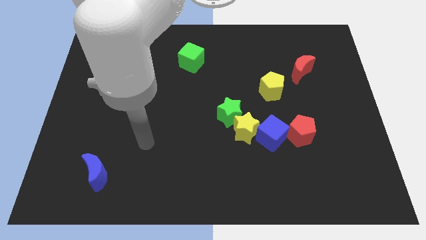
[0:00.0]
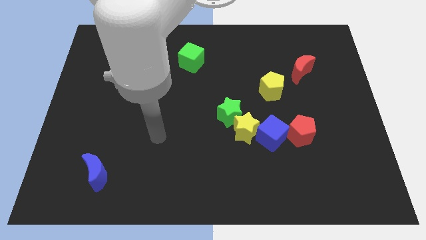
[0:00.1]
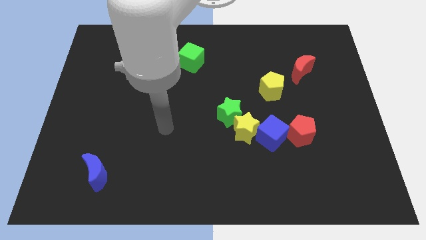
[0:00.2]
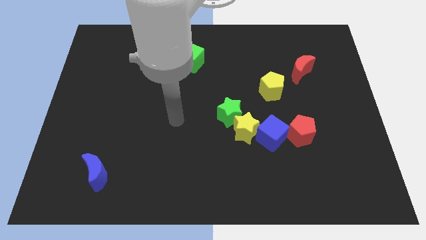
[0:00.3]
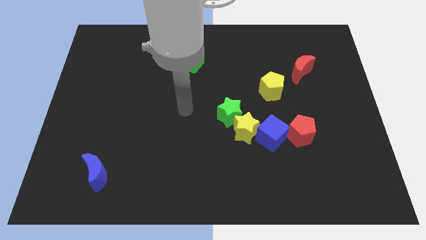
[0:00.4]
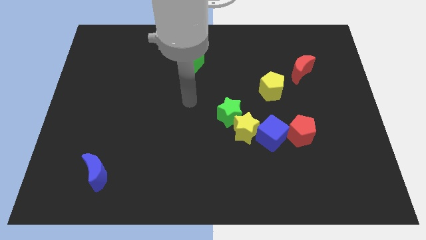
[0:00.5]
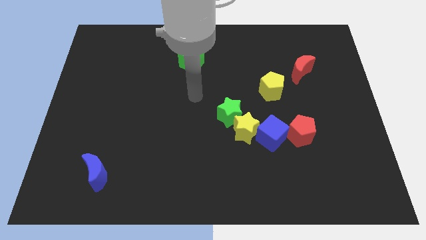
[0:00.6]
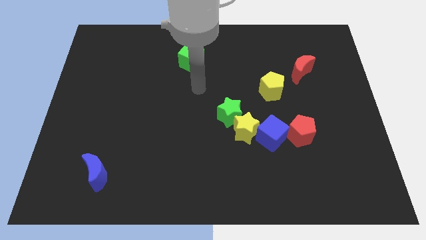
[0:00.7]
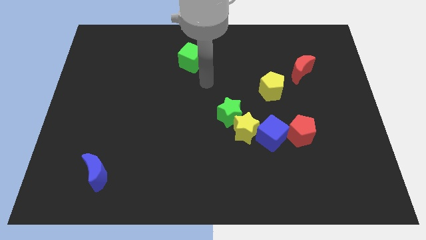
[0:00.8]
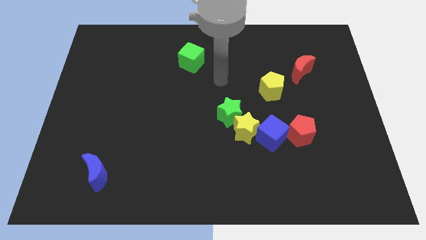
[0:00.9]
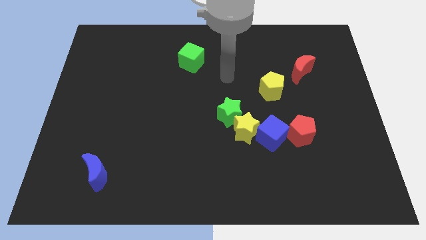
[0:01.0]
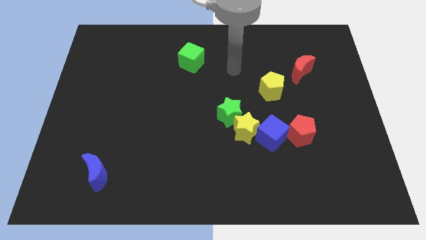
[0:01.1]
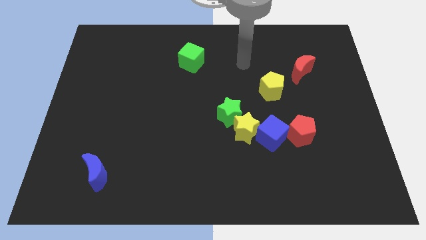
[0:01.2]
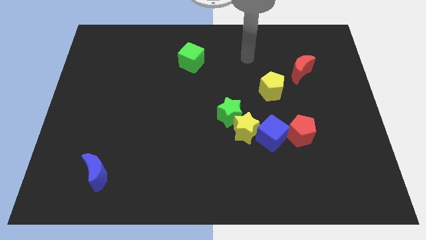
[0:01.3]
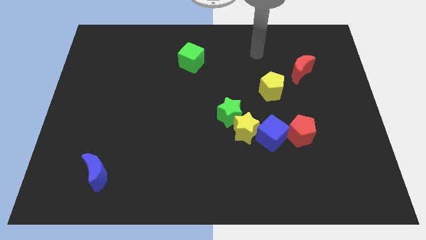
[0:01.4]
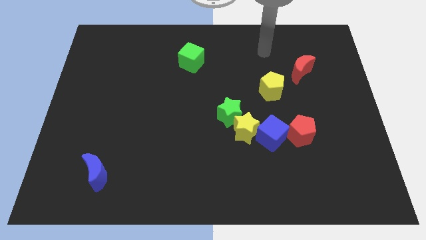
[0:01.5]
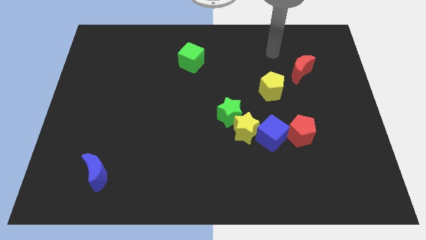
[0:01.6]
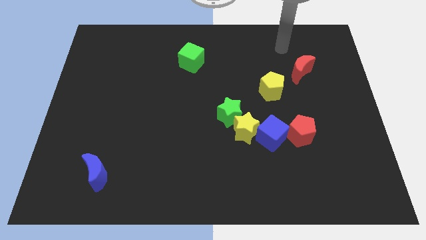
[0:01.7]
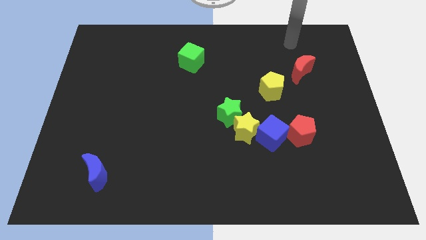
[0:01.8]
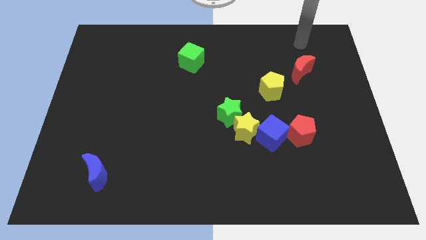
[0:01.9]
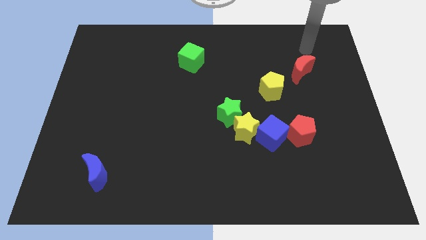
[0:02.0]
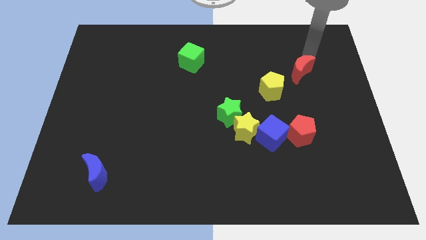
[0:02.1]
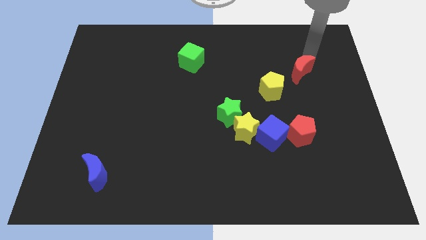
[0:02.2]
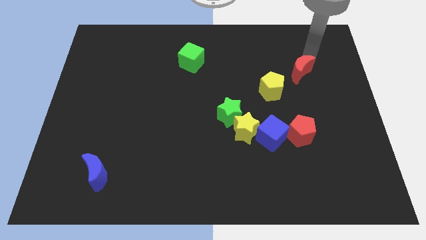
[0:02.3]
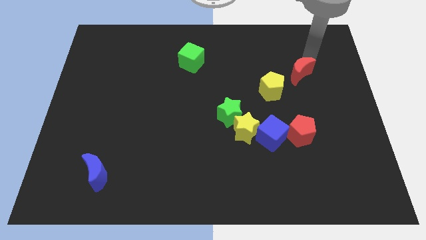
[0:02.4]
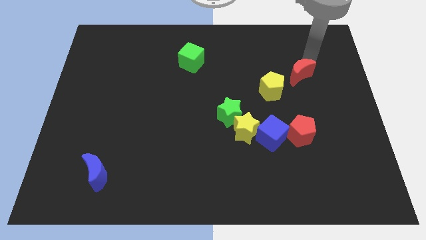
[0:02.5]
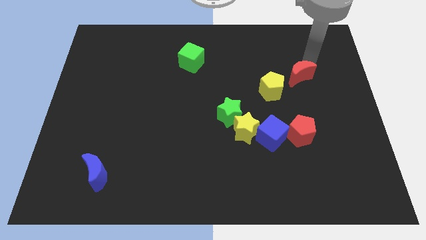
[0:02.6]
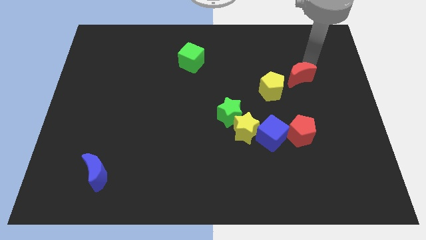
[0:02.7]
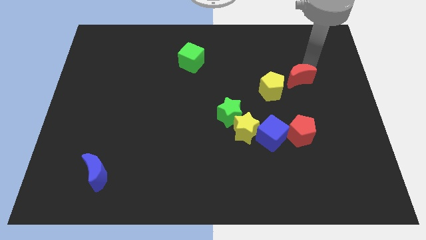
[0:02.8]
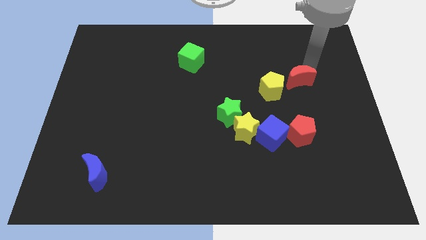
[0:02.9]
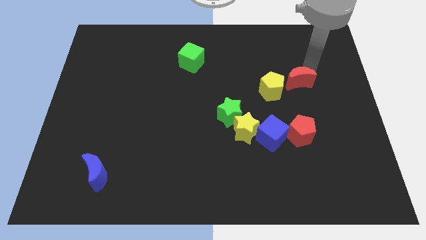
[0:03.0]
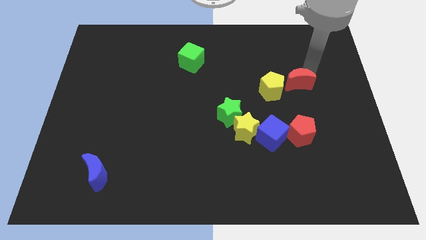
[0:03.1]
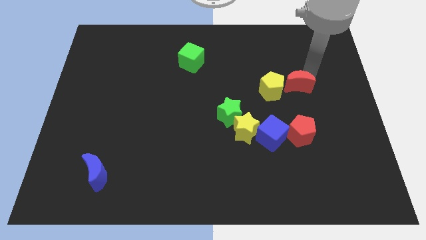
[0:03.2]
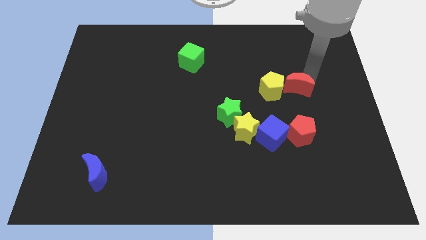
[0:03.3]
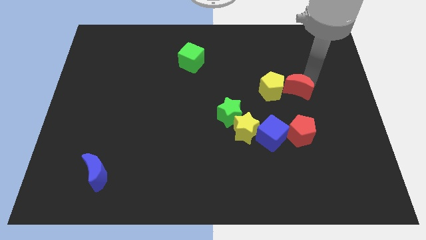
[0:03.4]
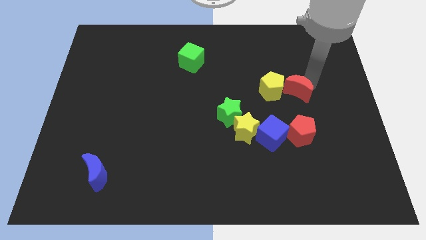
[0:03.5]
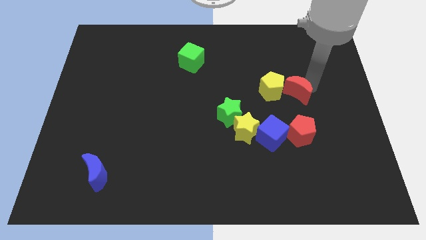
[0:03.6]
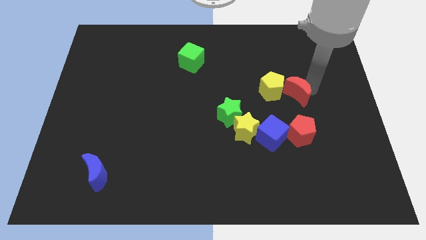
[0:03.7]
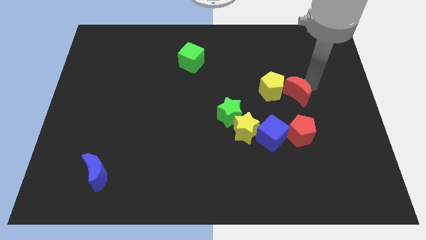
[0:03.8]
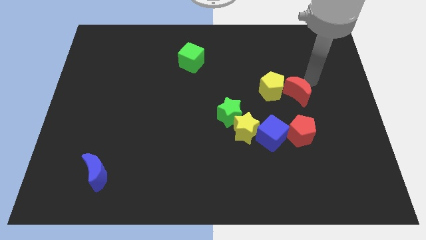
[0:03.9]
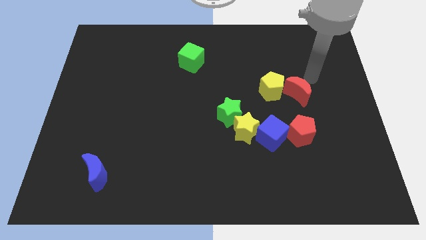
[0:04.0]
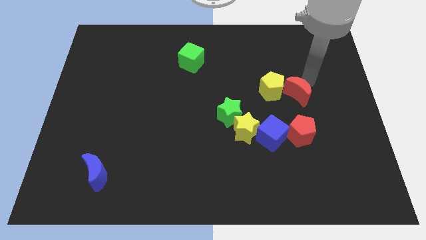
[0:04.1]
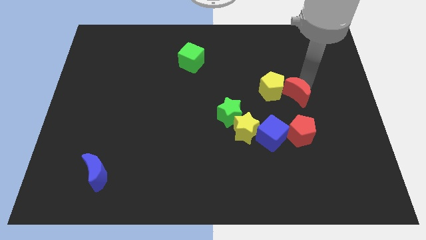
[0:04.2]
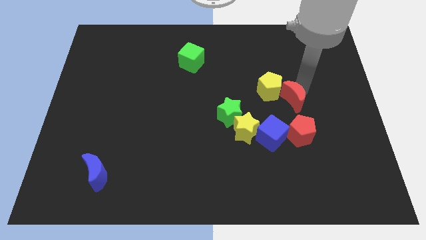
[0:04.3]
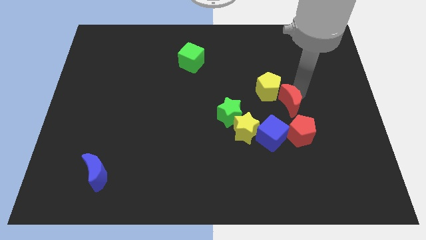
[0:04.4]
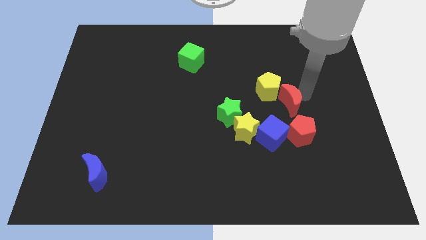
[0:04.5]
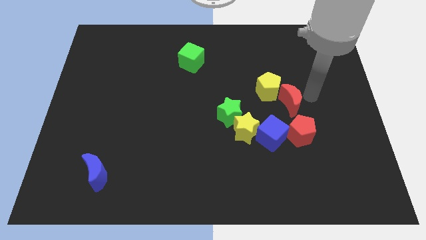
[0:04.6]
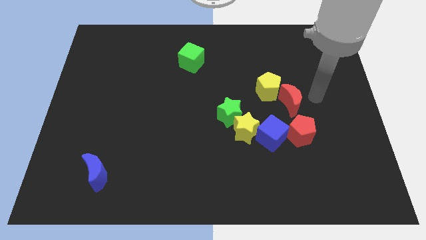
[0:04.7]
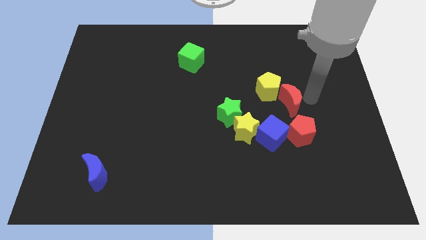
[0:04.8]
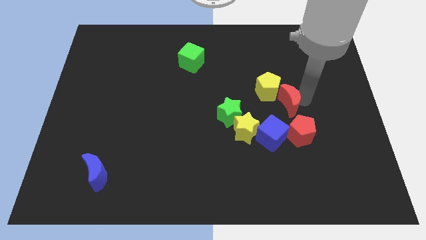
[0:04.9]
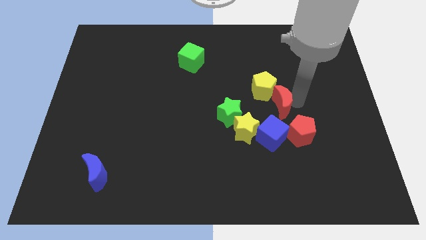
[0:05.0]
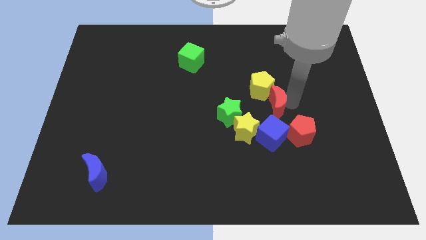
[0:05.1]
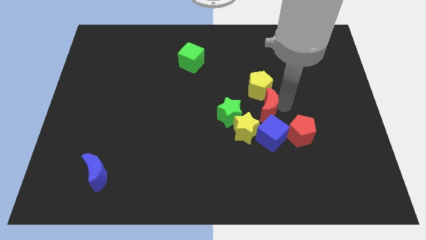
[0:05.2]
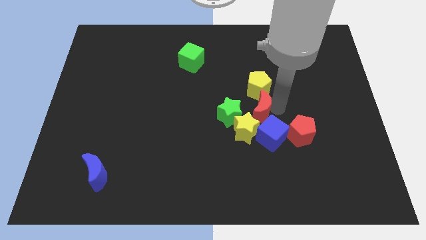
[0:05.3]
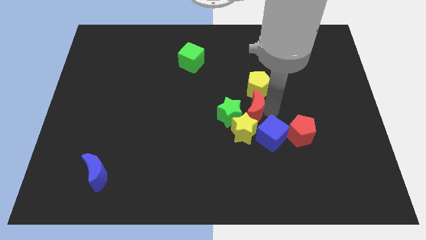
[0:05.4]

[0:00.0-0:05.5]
move the red moon to the bottom left side of the yellow pentagon

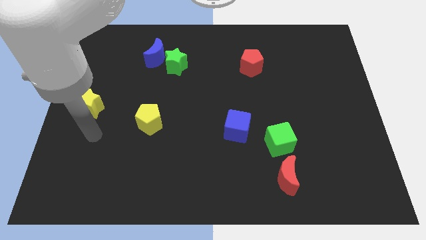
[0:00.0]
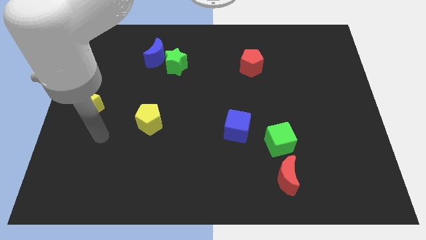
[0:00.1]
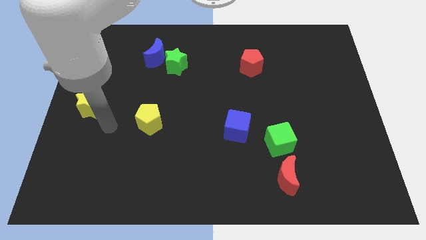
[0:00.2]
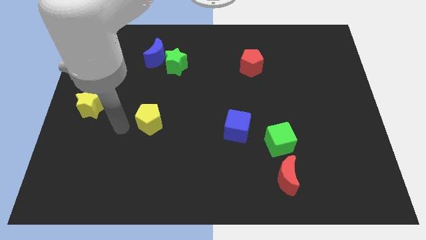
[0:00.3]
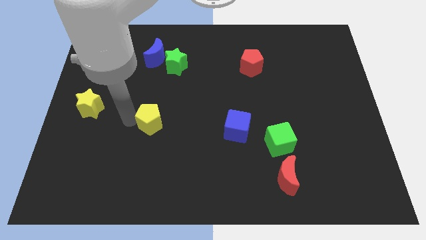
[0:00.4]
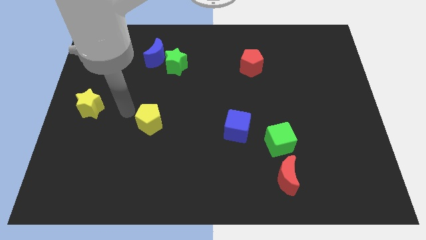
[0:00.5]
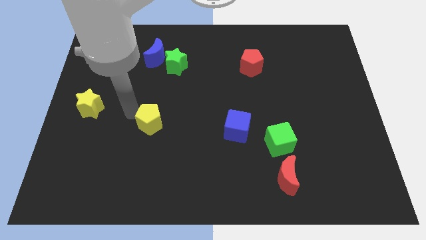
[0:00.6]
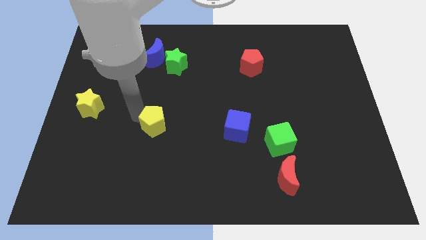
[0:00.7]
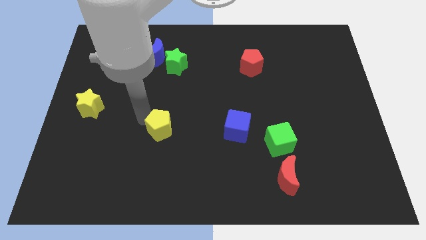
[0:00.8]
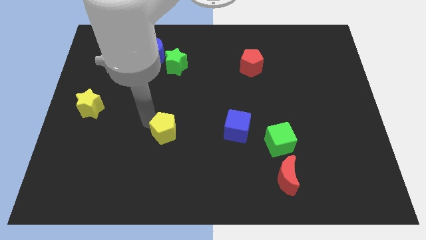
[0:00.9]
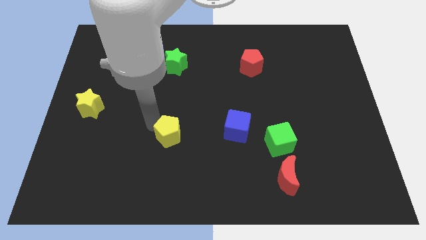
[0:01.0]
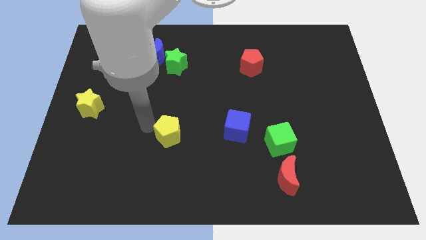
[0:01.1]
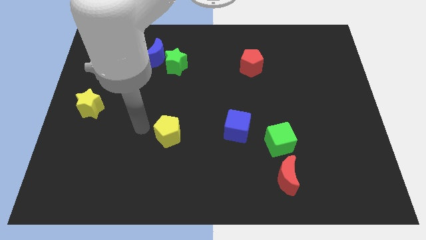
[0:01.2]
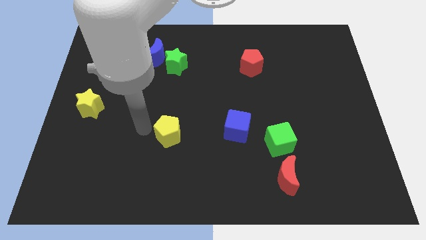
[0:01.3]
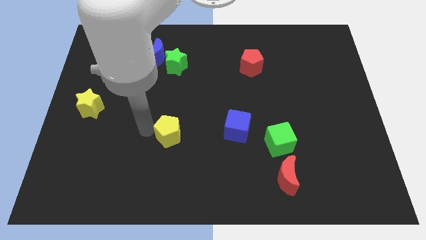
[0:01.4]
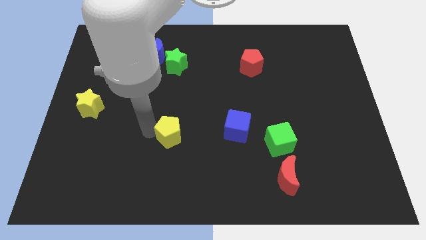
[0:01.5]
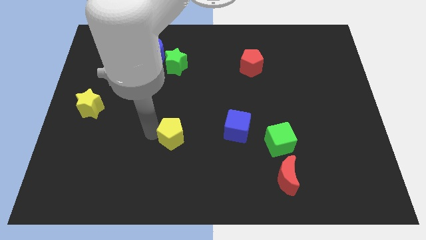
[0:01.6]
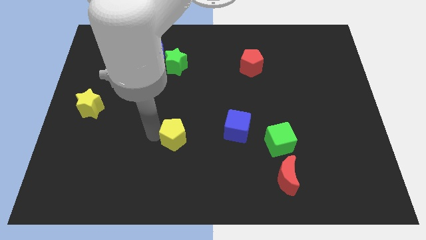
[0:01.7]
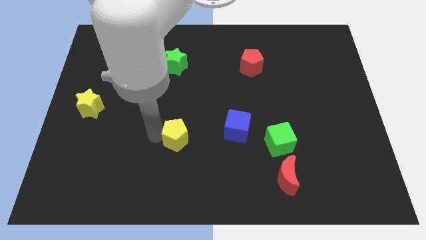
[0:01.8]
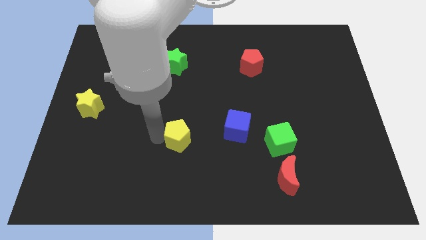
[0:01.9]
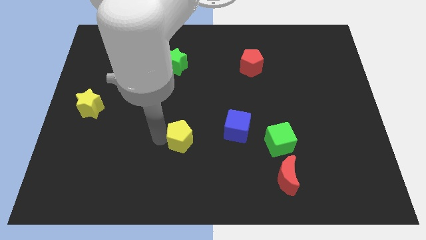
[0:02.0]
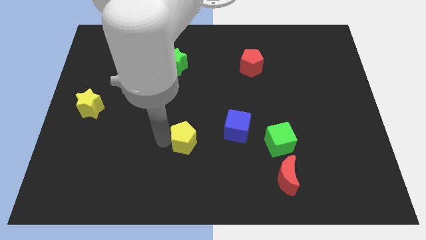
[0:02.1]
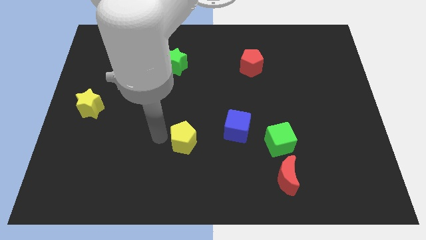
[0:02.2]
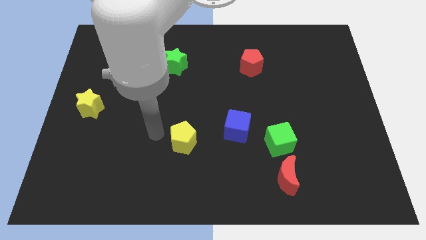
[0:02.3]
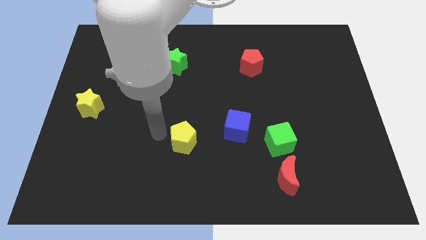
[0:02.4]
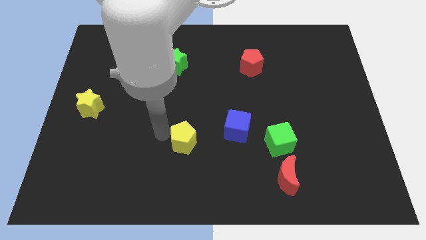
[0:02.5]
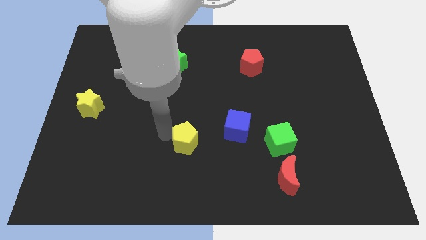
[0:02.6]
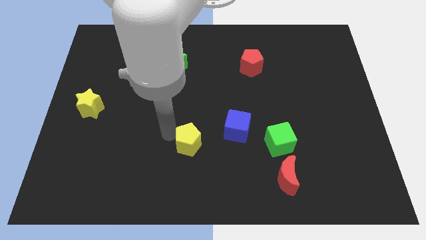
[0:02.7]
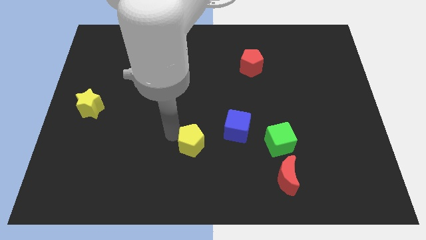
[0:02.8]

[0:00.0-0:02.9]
push the yellow pentagon to the bottom left side of the blue cube
